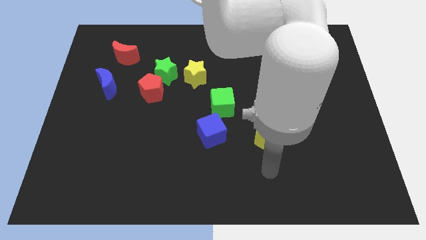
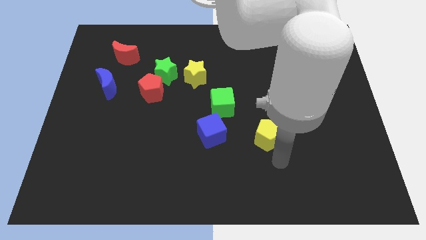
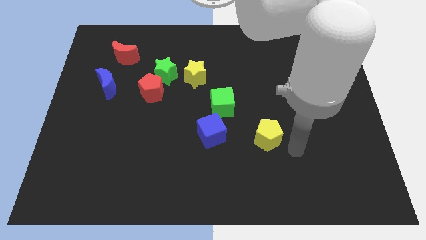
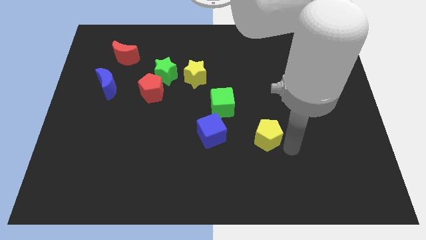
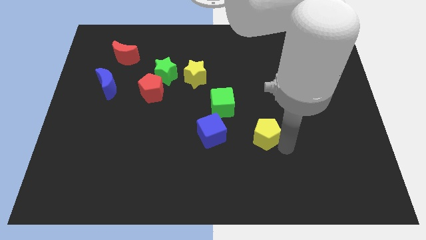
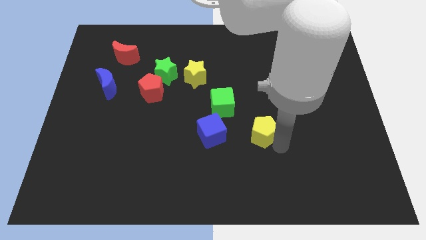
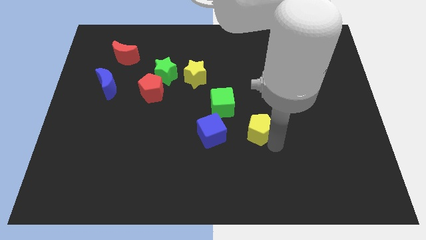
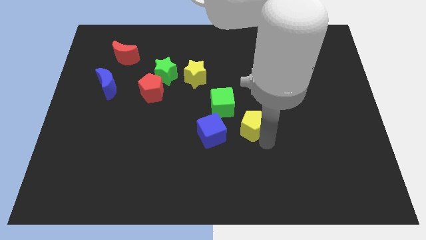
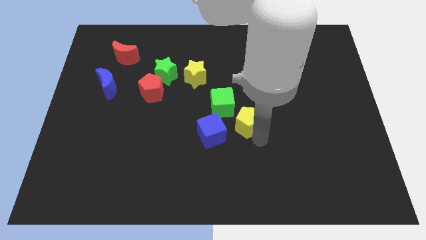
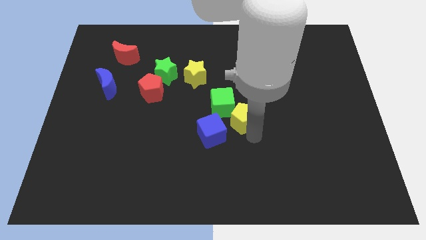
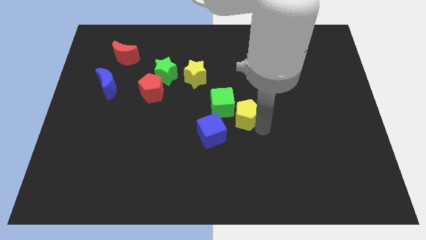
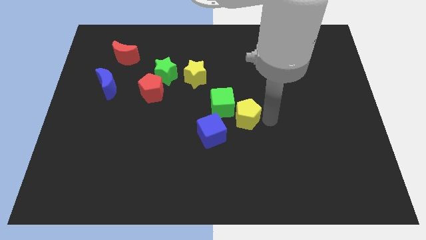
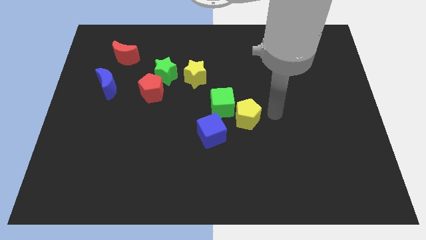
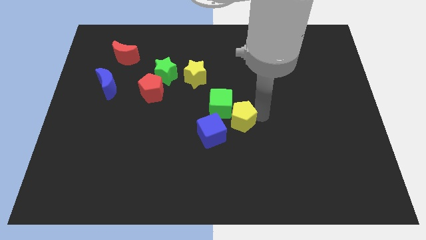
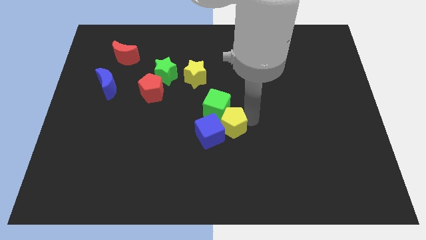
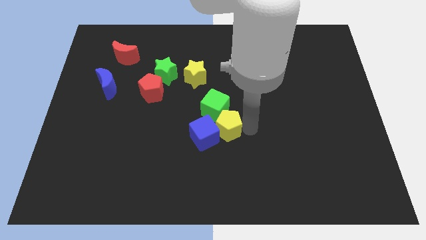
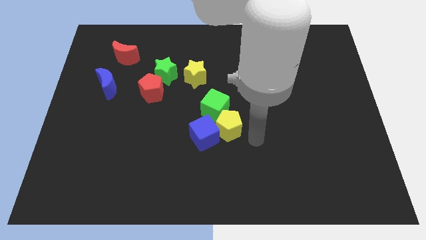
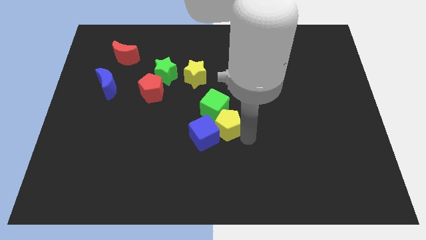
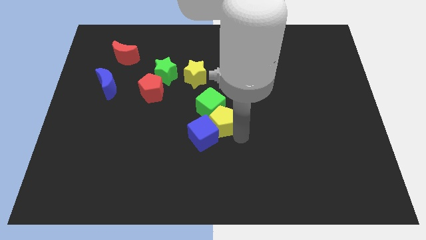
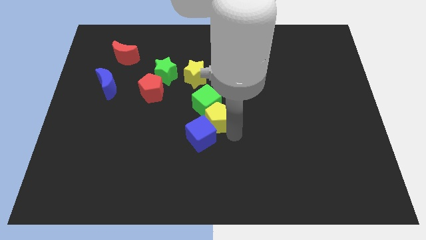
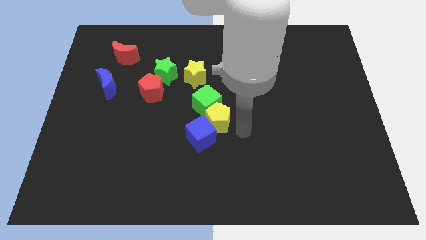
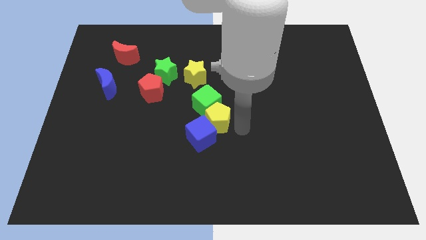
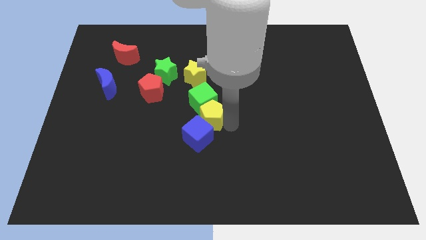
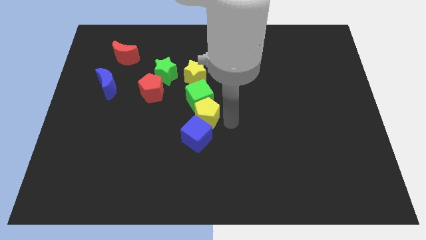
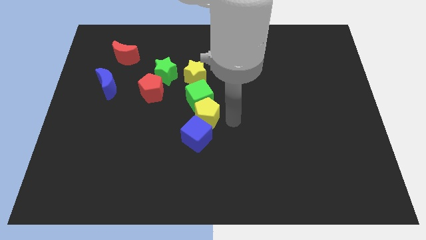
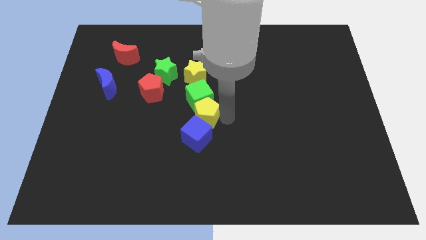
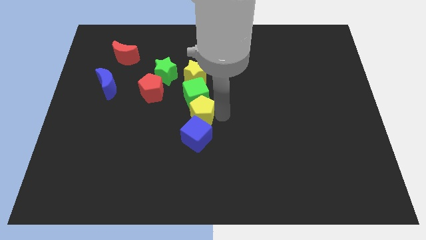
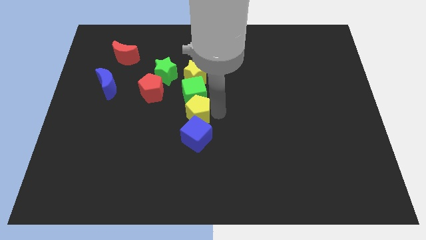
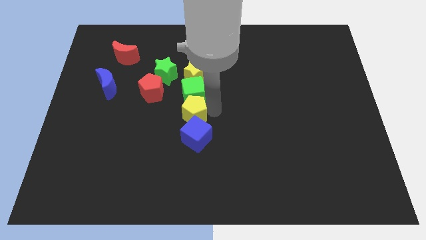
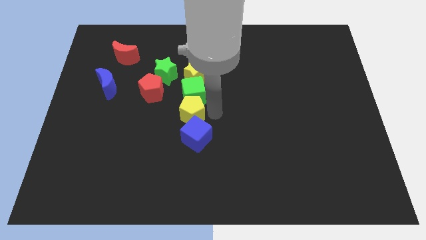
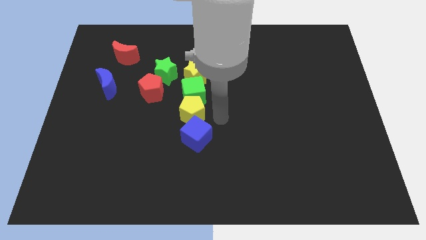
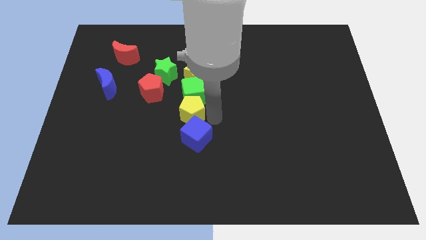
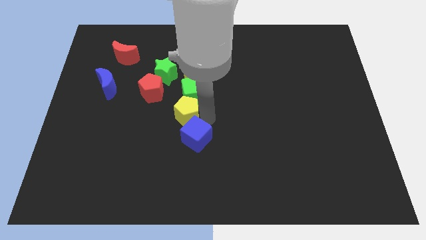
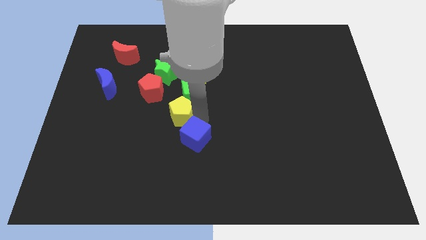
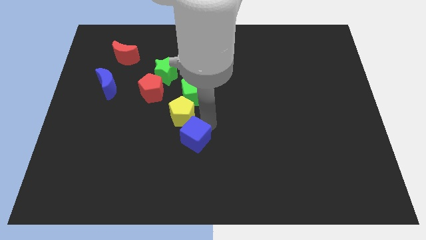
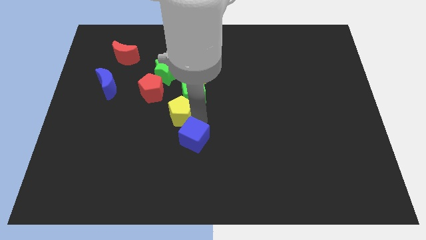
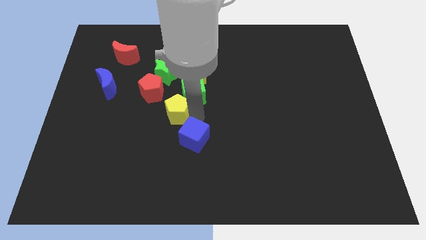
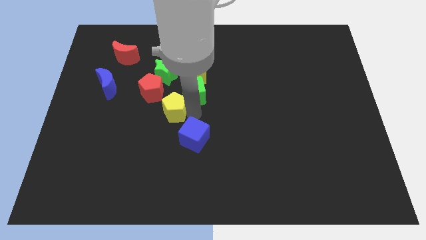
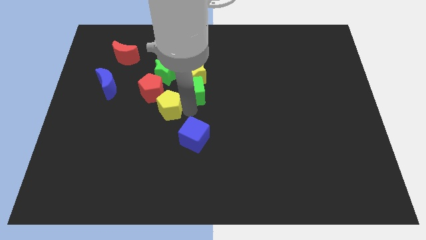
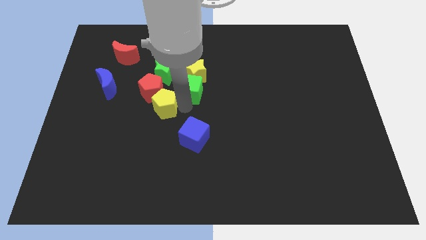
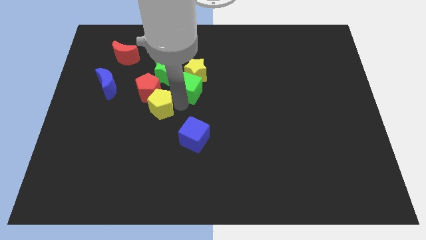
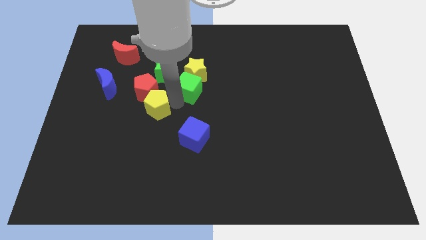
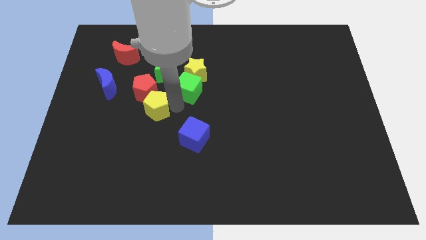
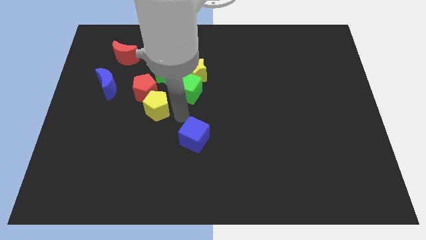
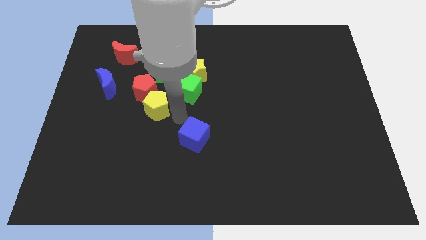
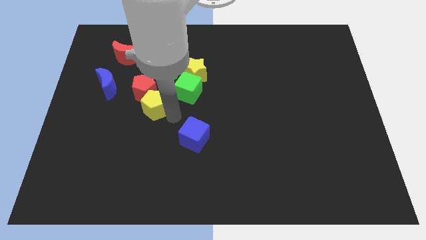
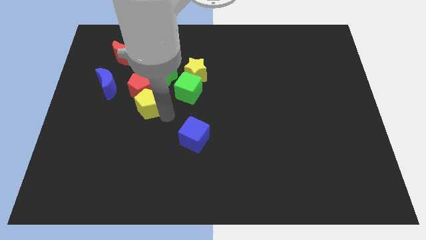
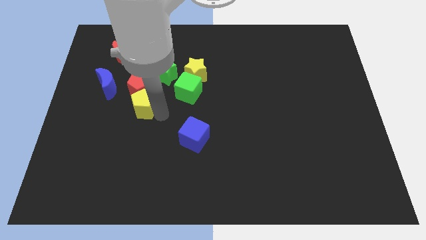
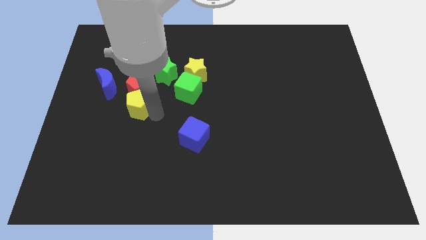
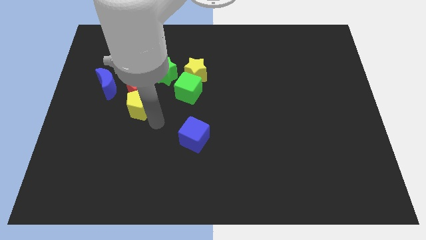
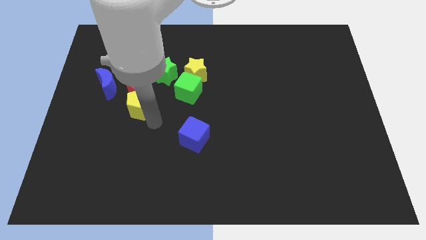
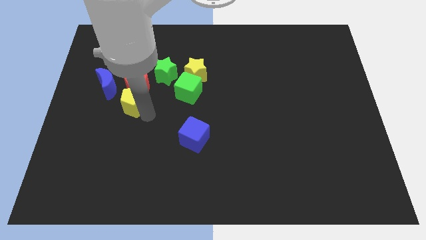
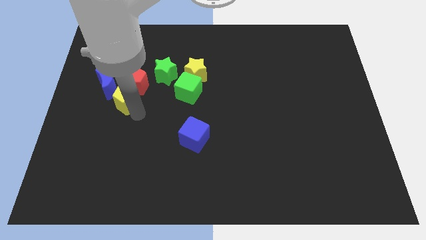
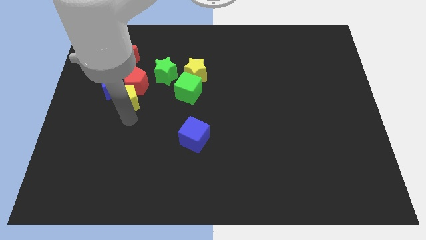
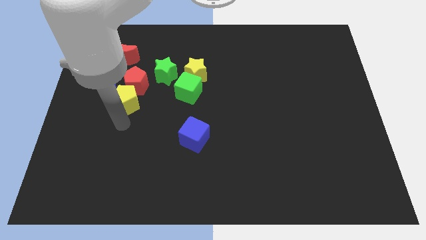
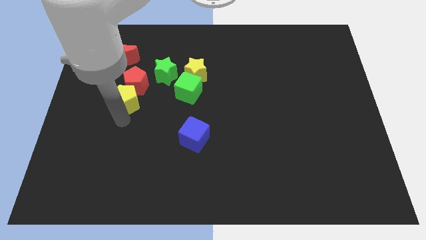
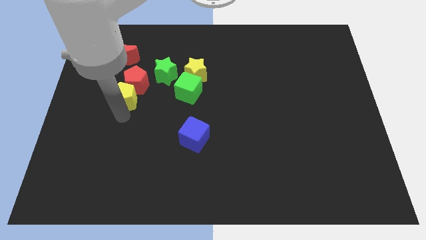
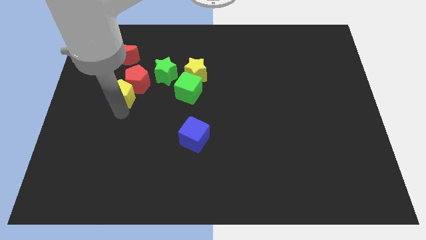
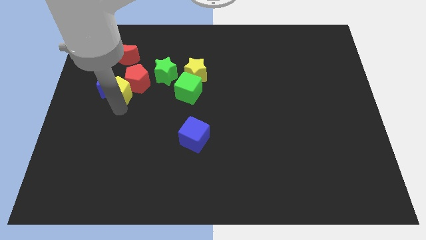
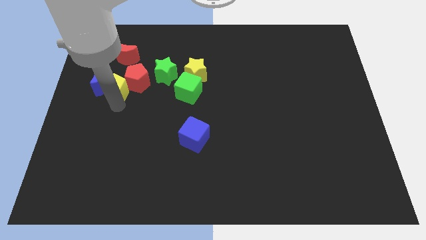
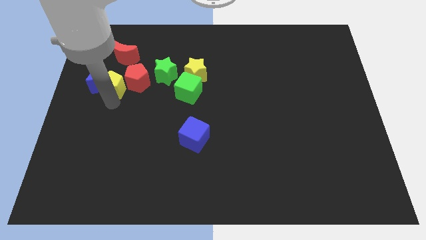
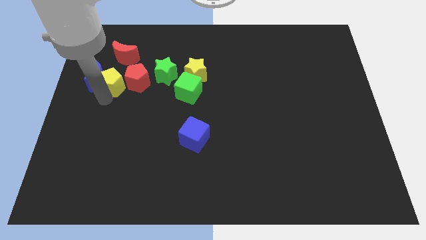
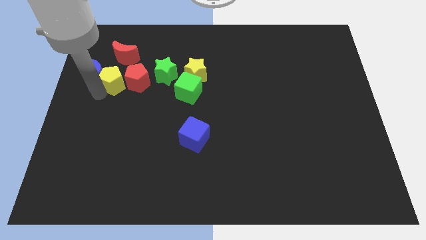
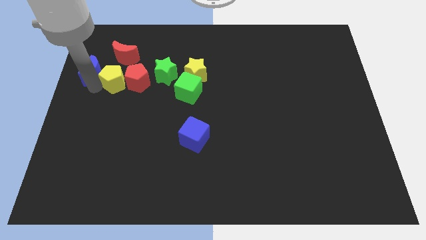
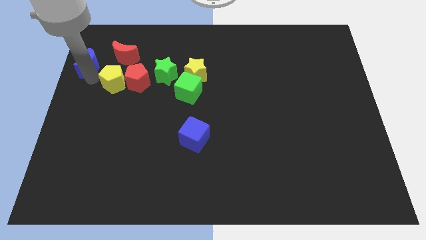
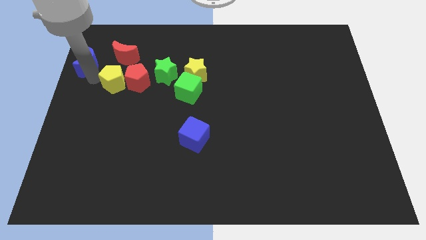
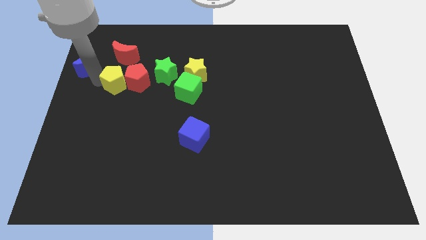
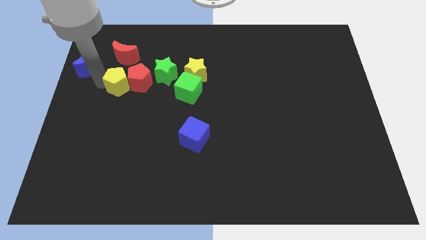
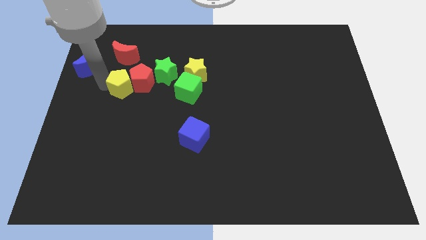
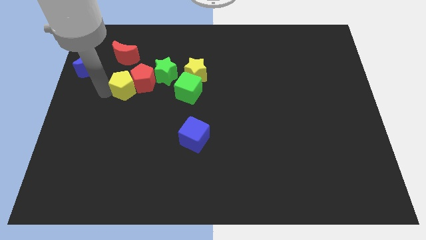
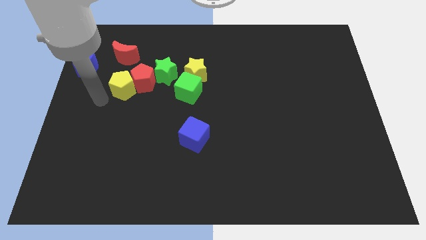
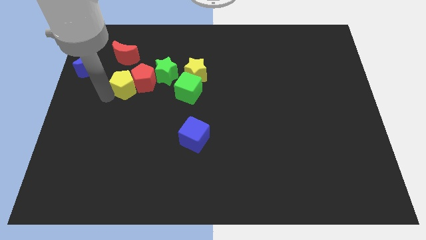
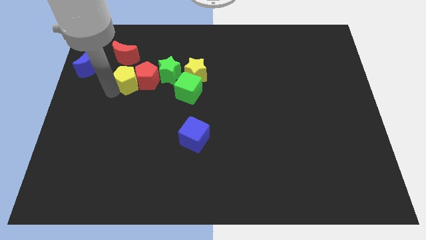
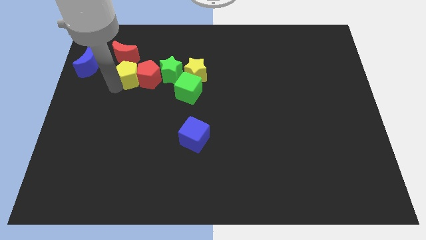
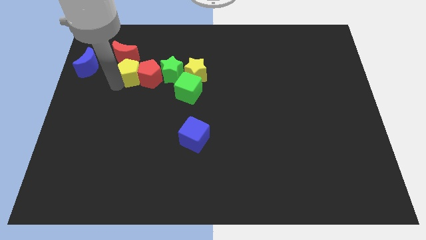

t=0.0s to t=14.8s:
push the yellow pentagon left of the yellow star
